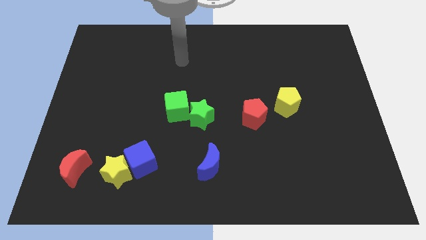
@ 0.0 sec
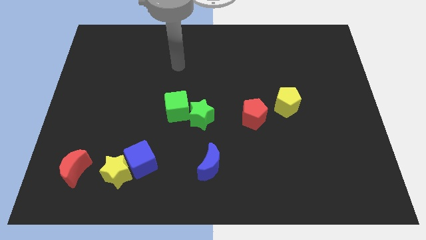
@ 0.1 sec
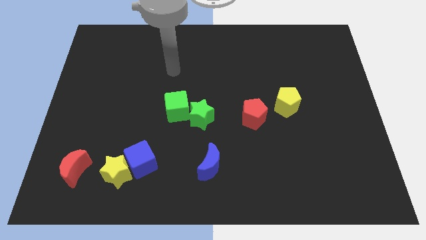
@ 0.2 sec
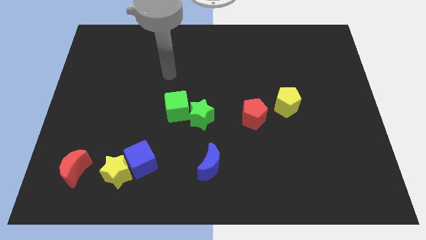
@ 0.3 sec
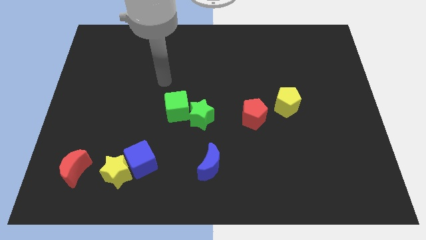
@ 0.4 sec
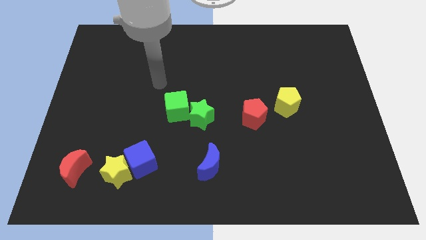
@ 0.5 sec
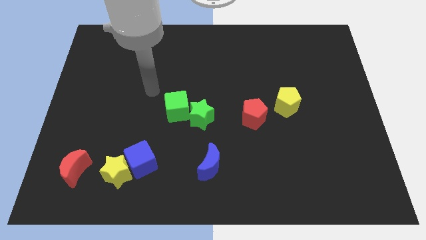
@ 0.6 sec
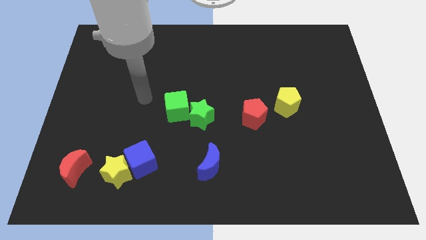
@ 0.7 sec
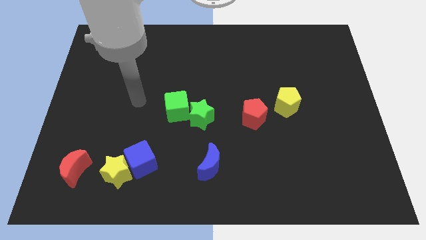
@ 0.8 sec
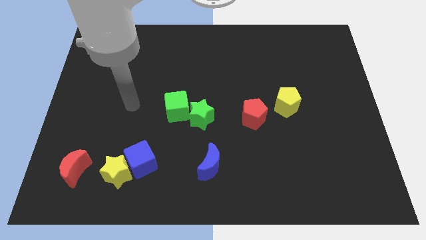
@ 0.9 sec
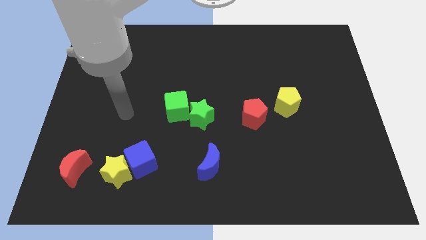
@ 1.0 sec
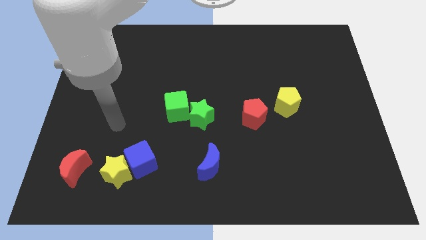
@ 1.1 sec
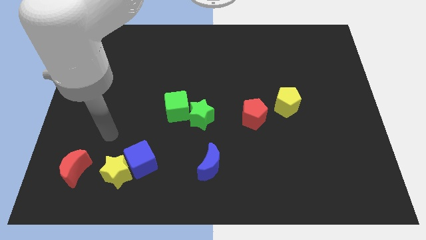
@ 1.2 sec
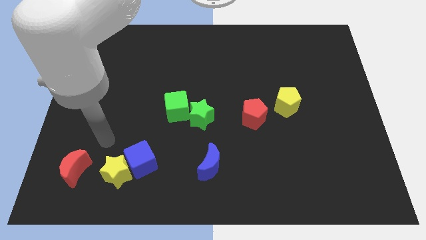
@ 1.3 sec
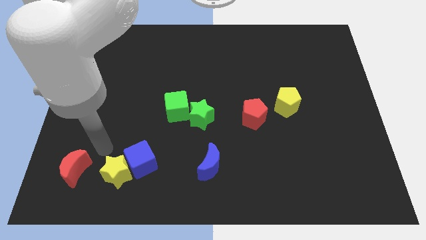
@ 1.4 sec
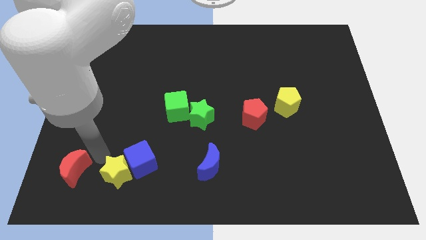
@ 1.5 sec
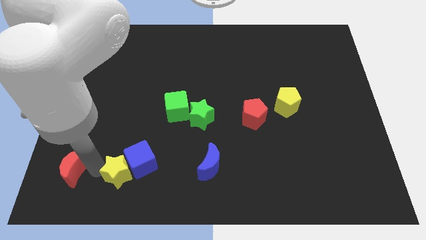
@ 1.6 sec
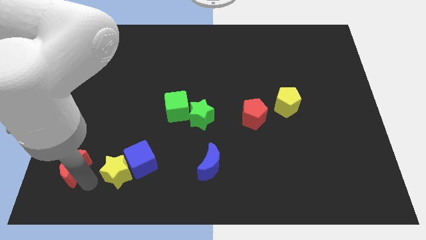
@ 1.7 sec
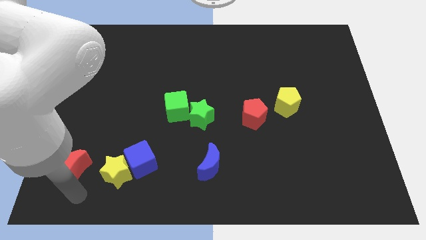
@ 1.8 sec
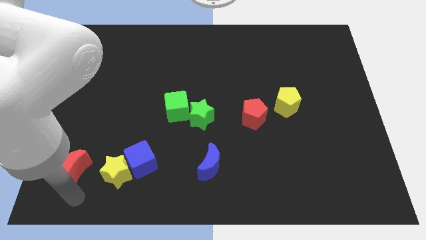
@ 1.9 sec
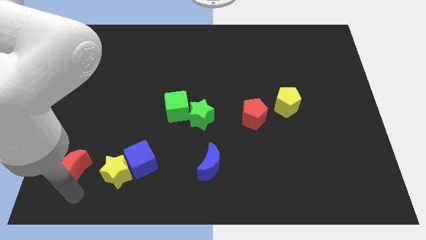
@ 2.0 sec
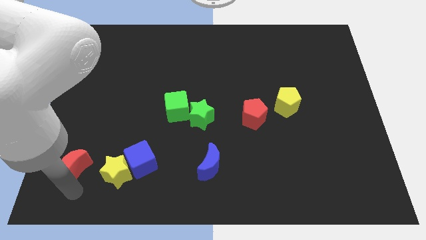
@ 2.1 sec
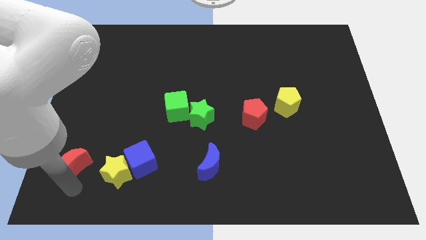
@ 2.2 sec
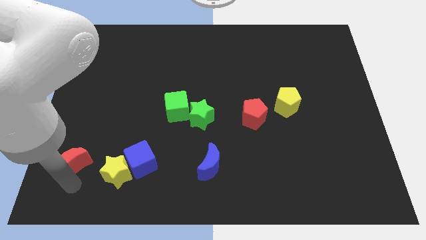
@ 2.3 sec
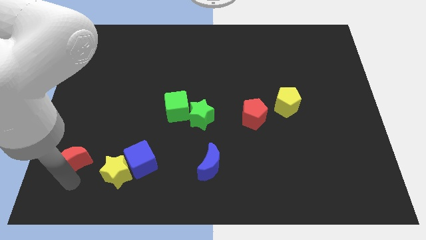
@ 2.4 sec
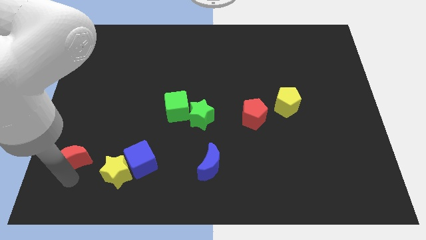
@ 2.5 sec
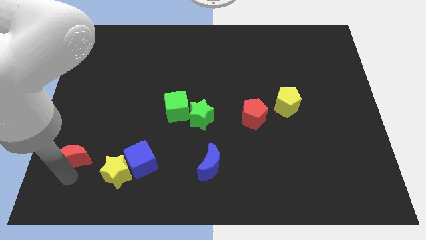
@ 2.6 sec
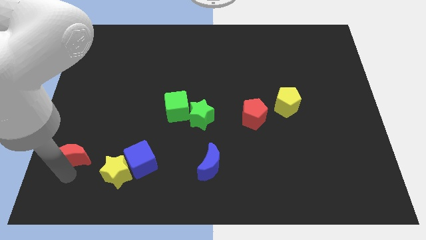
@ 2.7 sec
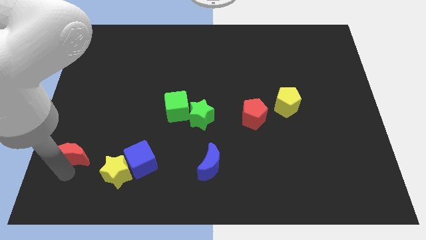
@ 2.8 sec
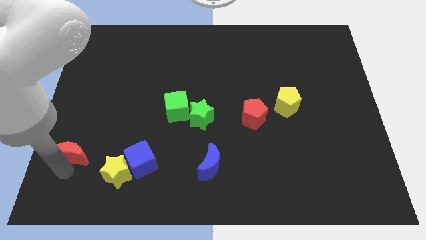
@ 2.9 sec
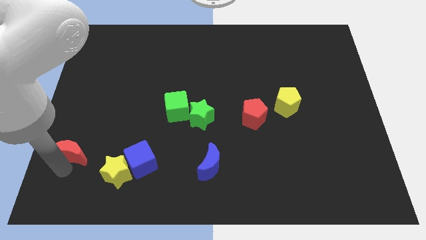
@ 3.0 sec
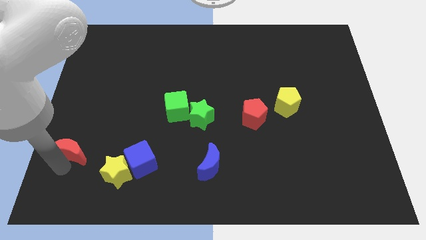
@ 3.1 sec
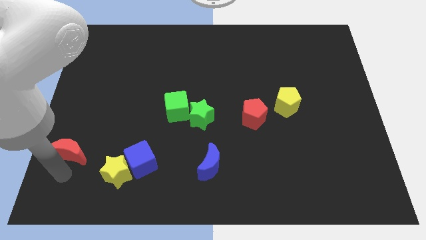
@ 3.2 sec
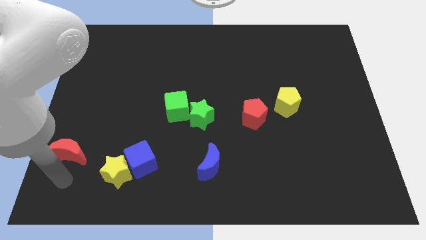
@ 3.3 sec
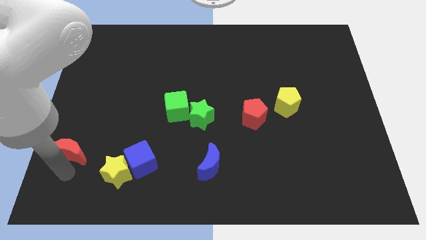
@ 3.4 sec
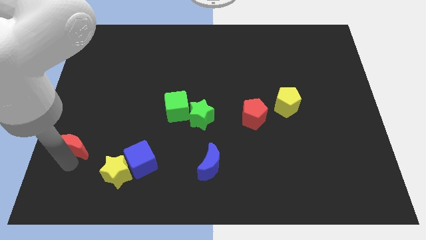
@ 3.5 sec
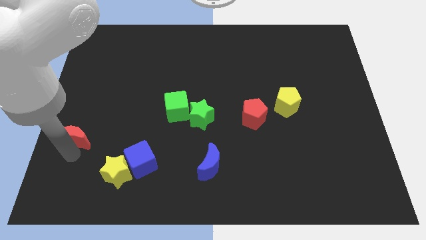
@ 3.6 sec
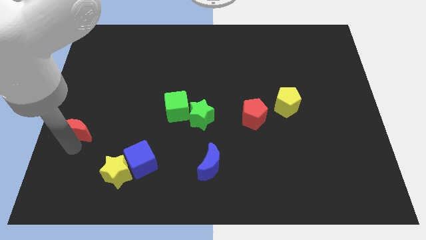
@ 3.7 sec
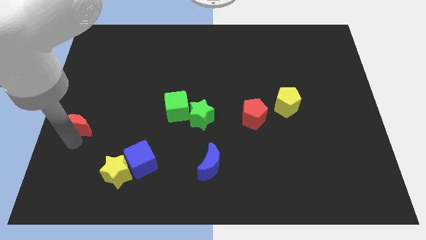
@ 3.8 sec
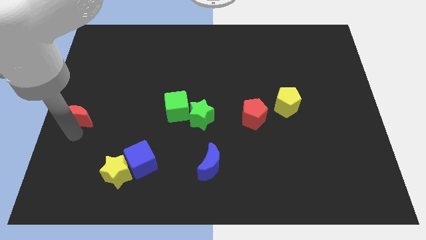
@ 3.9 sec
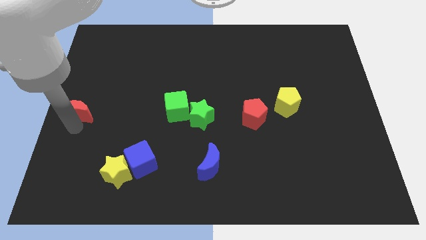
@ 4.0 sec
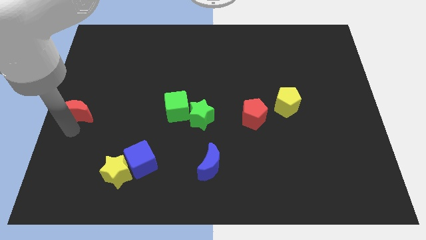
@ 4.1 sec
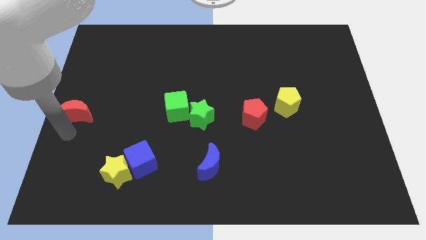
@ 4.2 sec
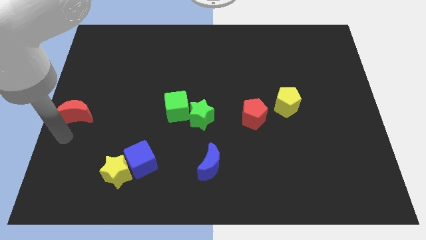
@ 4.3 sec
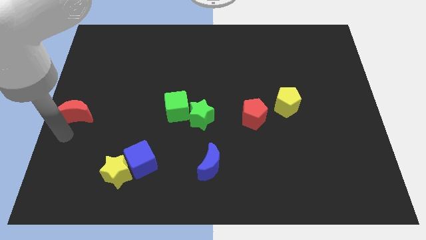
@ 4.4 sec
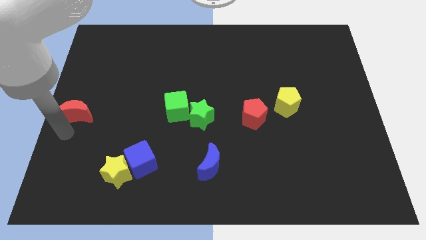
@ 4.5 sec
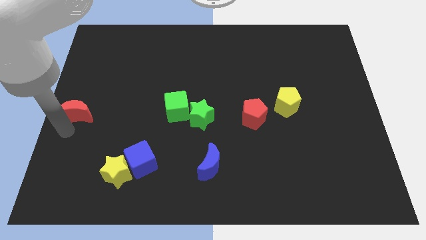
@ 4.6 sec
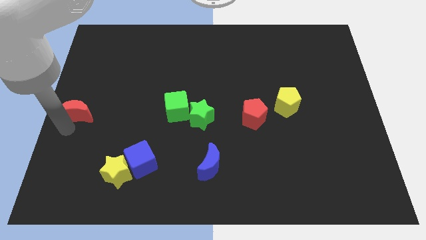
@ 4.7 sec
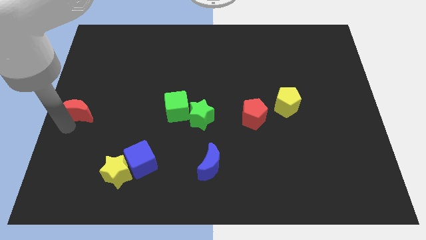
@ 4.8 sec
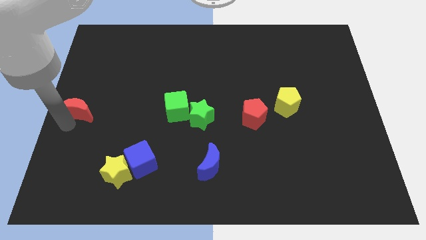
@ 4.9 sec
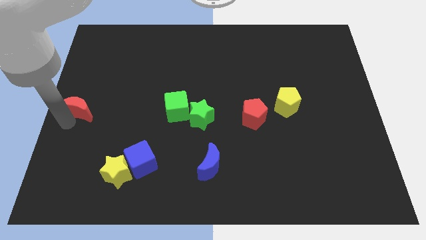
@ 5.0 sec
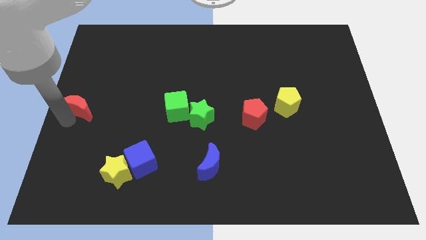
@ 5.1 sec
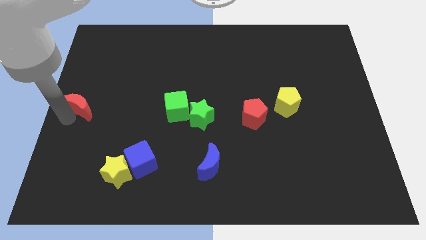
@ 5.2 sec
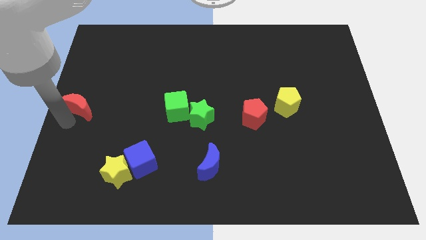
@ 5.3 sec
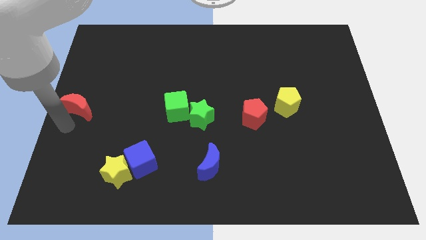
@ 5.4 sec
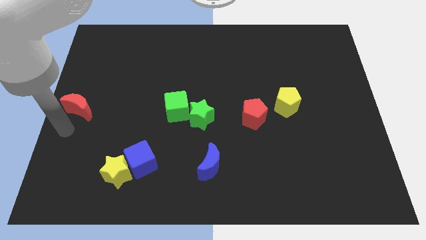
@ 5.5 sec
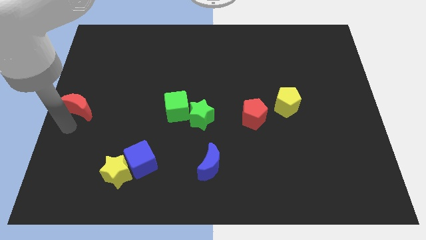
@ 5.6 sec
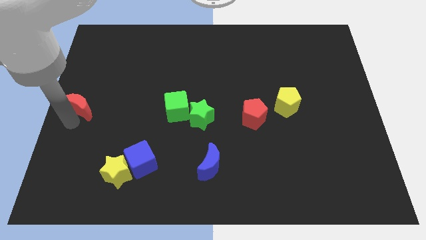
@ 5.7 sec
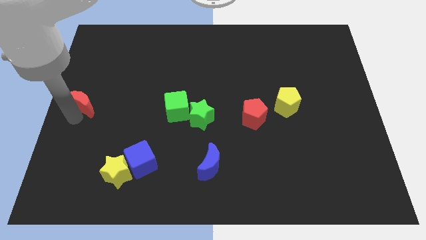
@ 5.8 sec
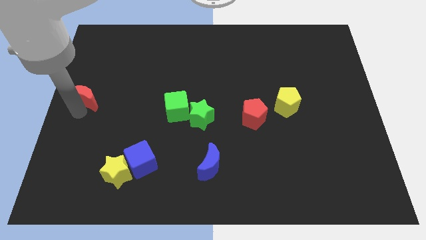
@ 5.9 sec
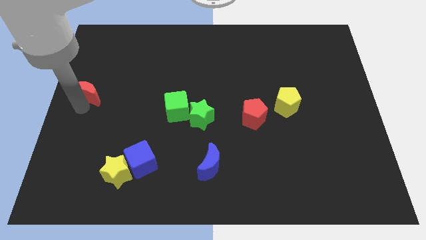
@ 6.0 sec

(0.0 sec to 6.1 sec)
push the red moon up

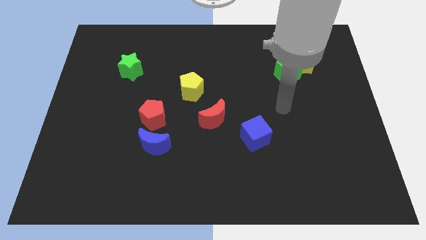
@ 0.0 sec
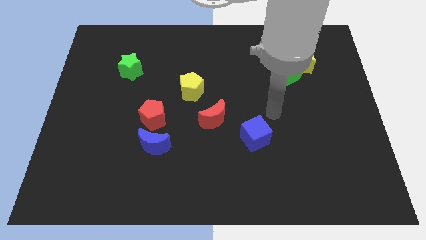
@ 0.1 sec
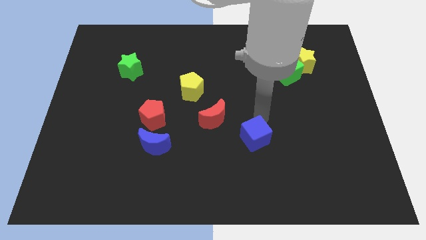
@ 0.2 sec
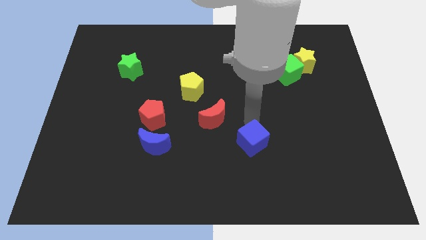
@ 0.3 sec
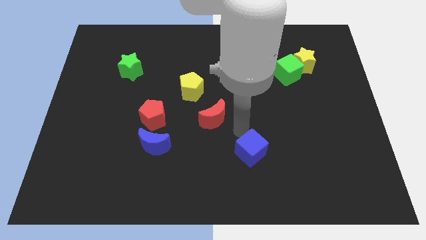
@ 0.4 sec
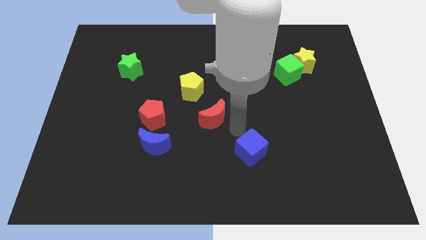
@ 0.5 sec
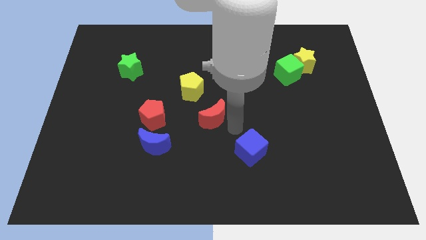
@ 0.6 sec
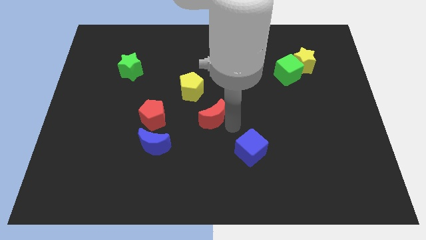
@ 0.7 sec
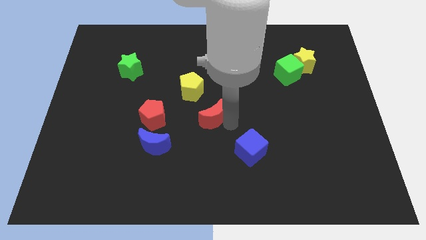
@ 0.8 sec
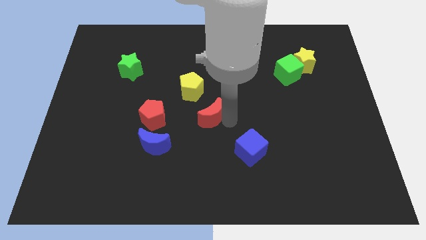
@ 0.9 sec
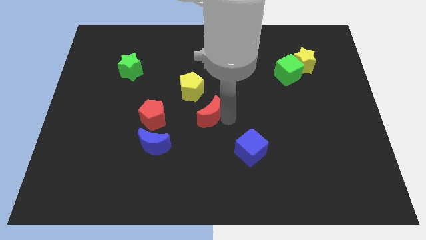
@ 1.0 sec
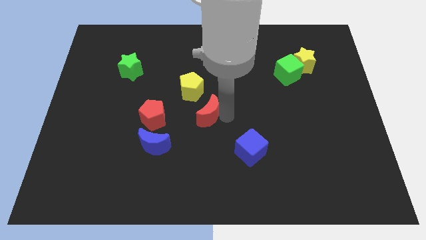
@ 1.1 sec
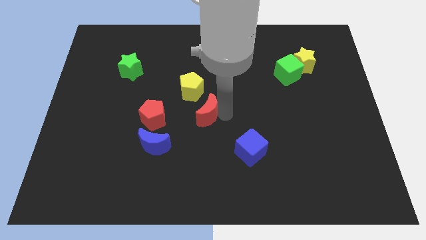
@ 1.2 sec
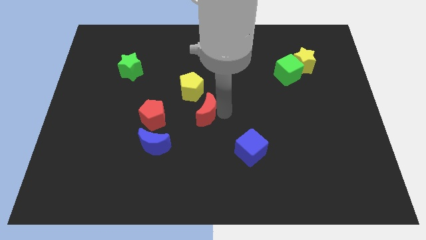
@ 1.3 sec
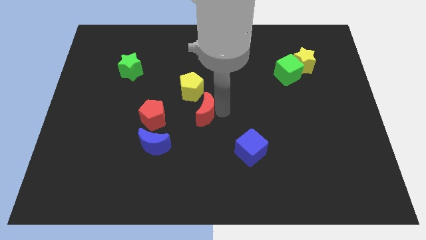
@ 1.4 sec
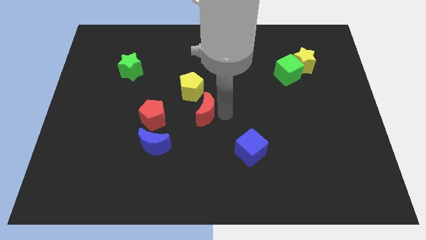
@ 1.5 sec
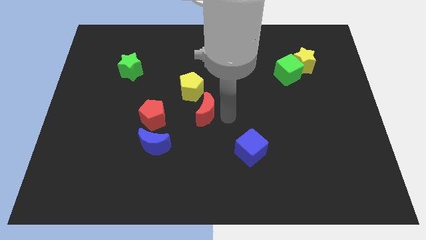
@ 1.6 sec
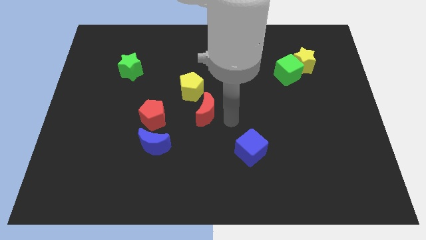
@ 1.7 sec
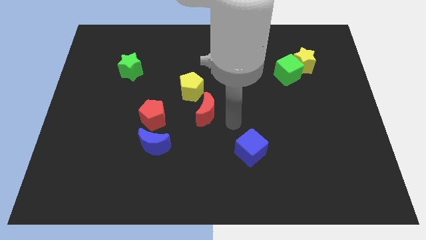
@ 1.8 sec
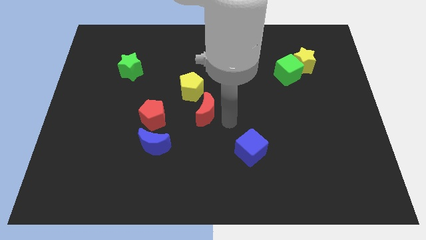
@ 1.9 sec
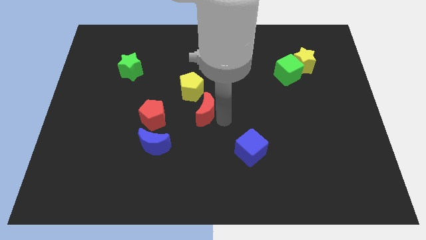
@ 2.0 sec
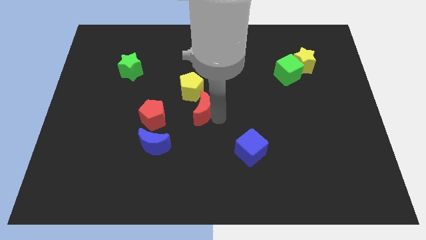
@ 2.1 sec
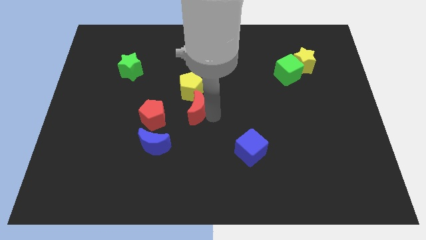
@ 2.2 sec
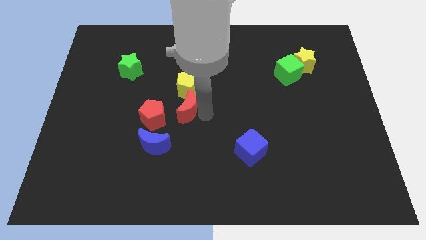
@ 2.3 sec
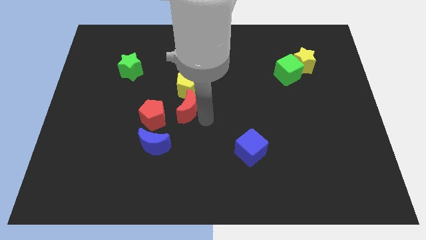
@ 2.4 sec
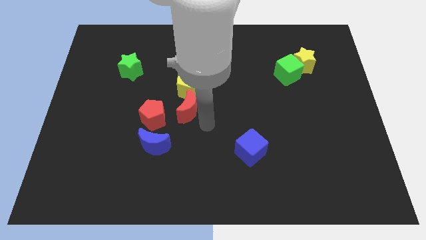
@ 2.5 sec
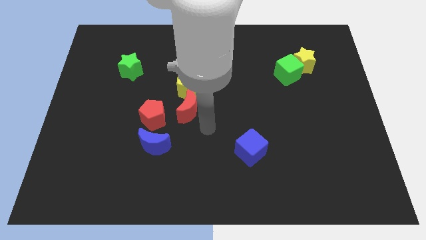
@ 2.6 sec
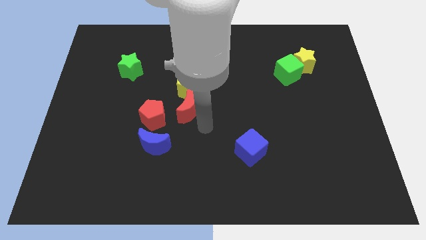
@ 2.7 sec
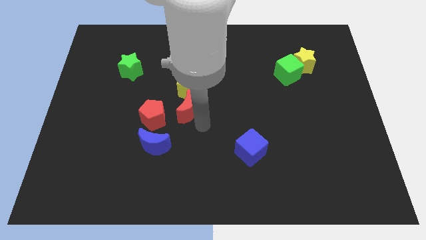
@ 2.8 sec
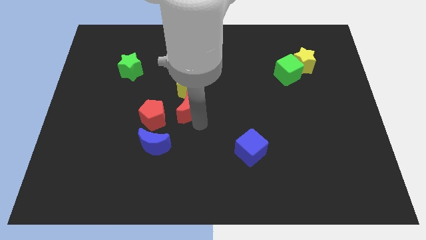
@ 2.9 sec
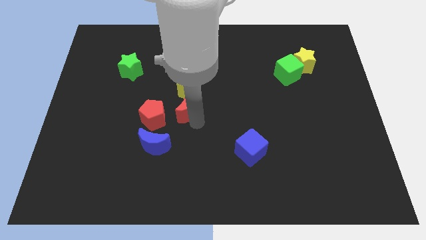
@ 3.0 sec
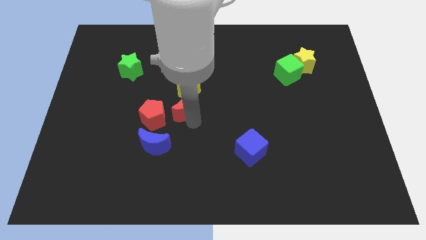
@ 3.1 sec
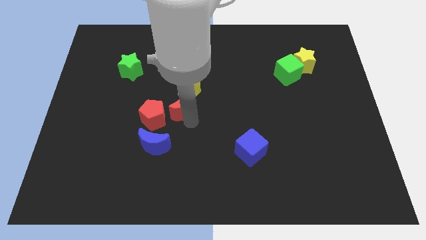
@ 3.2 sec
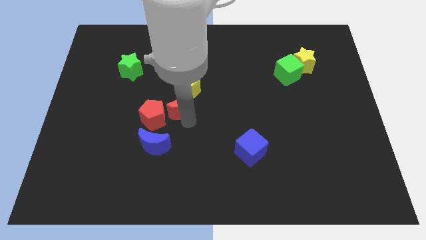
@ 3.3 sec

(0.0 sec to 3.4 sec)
slightly push the red moon diagonally upwards and to the left
